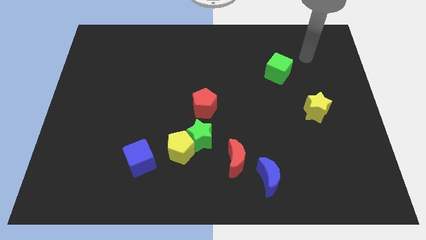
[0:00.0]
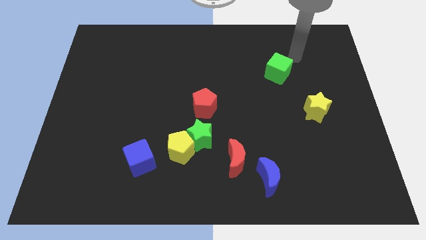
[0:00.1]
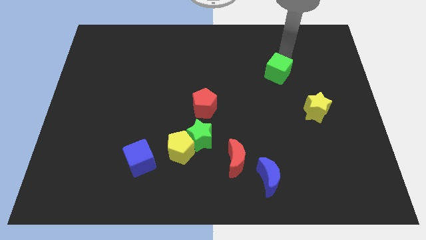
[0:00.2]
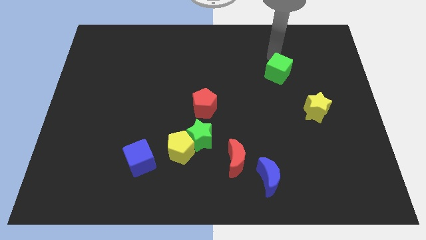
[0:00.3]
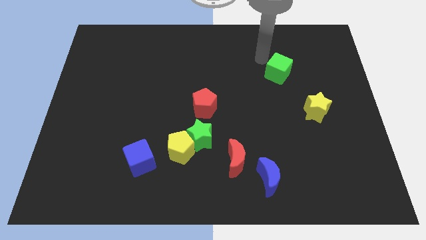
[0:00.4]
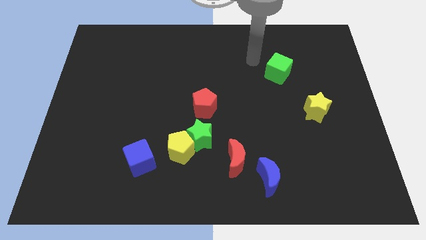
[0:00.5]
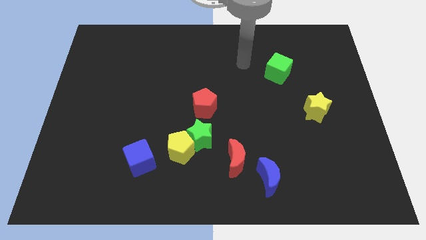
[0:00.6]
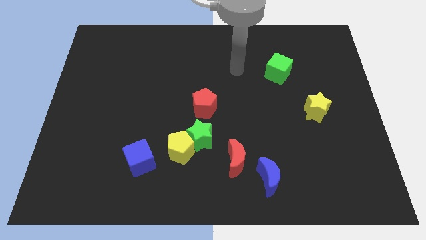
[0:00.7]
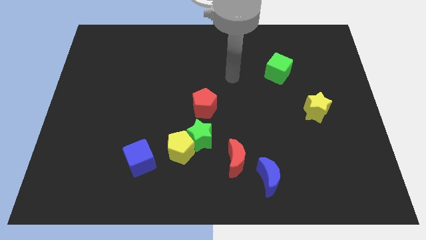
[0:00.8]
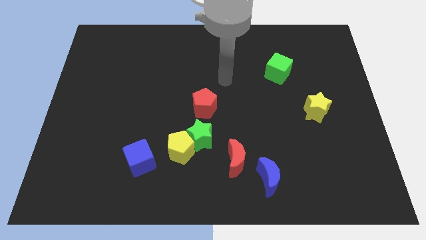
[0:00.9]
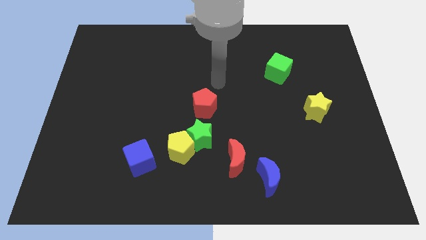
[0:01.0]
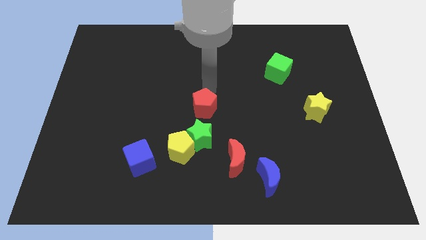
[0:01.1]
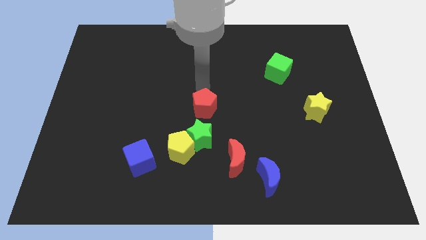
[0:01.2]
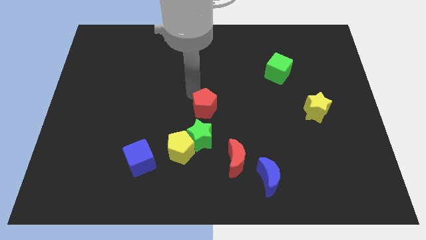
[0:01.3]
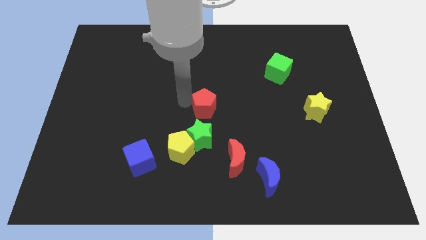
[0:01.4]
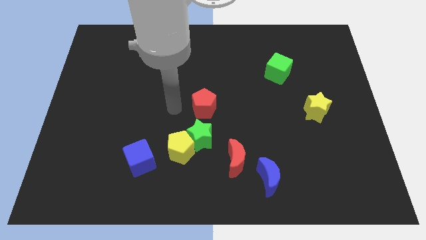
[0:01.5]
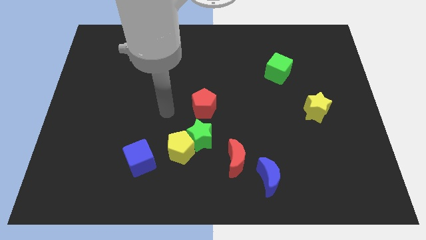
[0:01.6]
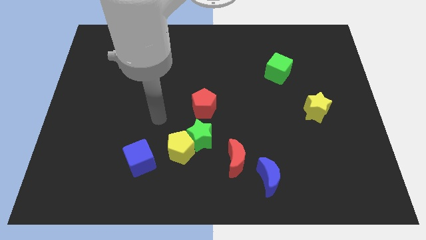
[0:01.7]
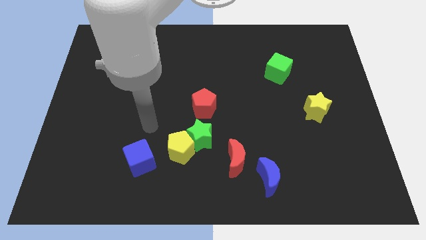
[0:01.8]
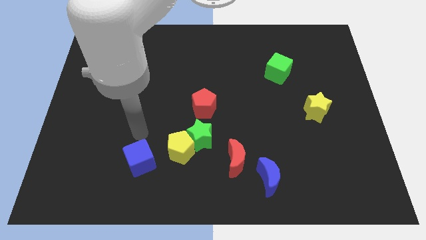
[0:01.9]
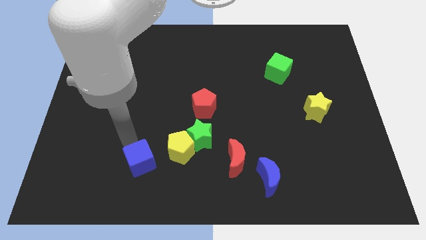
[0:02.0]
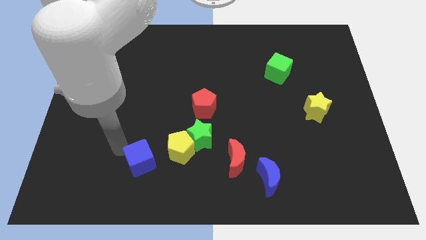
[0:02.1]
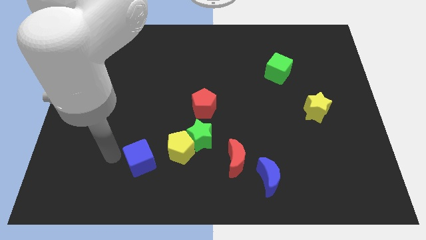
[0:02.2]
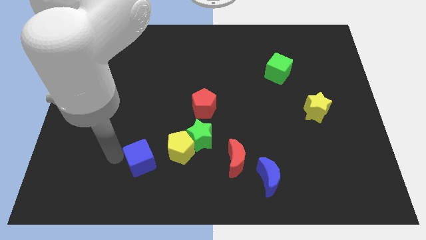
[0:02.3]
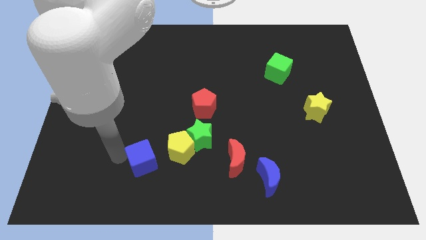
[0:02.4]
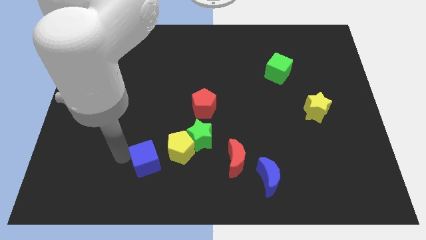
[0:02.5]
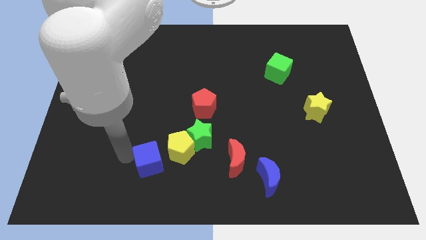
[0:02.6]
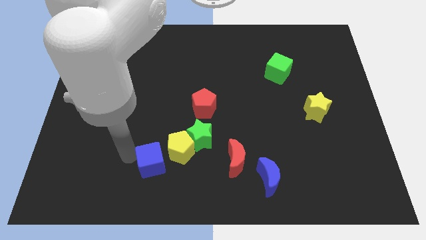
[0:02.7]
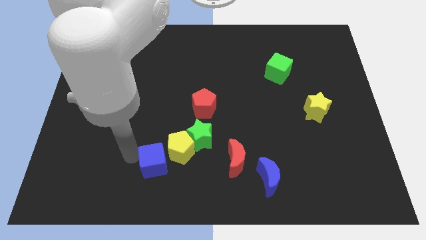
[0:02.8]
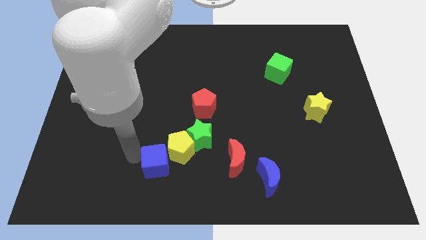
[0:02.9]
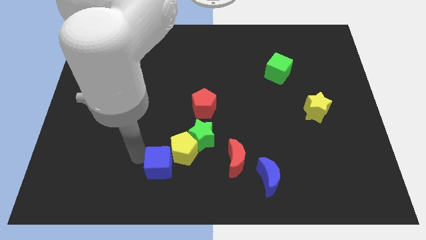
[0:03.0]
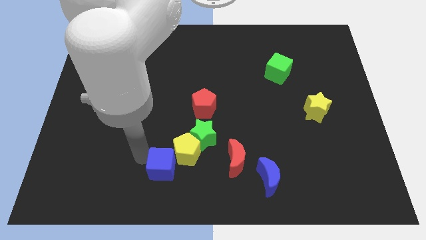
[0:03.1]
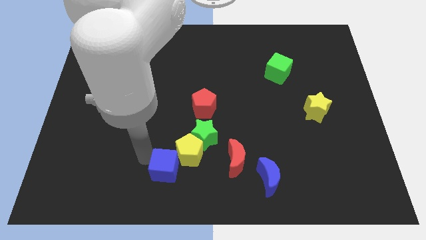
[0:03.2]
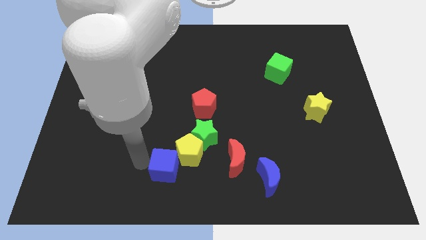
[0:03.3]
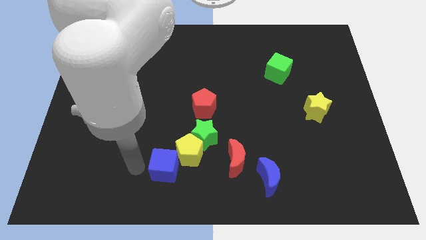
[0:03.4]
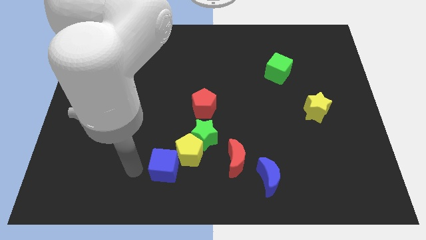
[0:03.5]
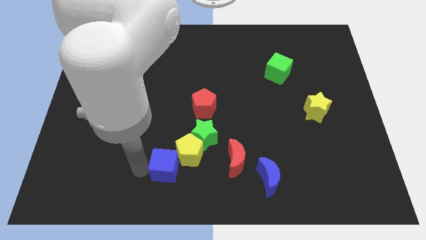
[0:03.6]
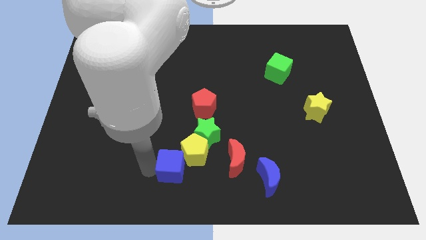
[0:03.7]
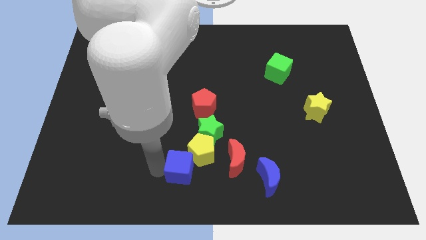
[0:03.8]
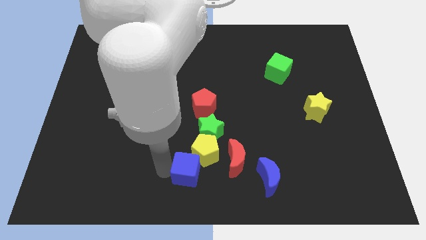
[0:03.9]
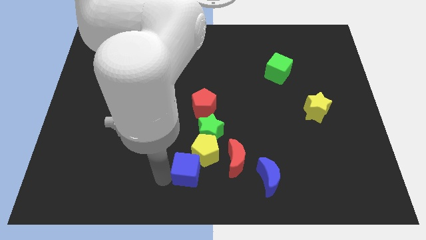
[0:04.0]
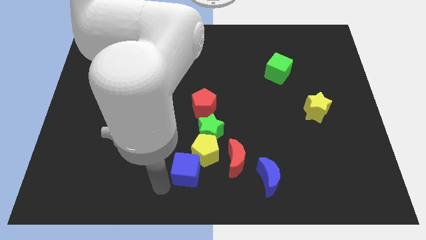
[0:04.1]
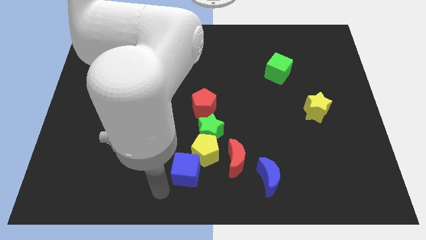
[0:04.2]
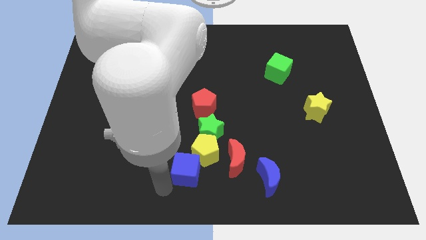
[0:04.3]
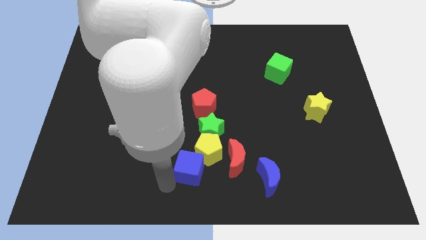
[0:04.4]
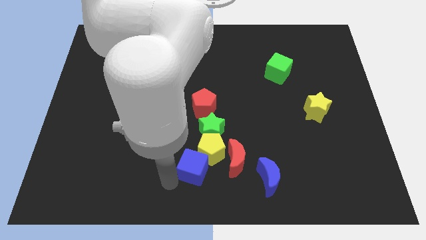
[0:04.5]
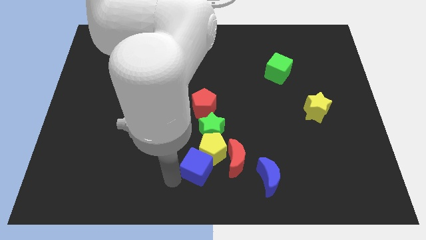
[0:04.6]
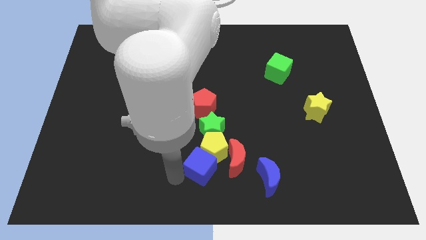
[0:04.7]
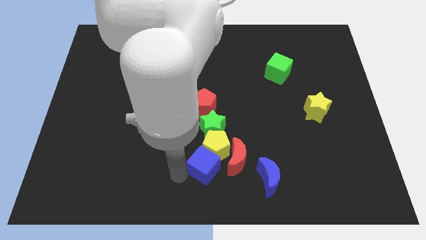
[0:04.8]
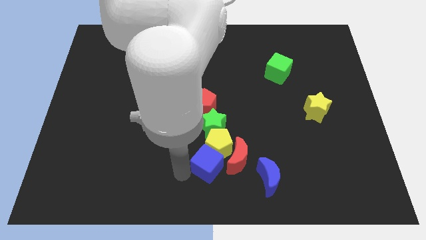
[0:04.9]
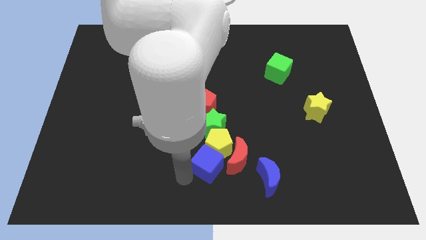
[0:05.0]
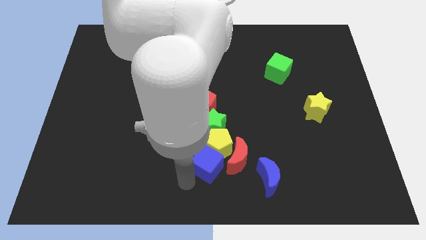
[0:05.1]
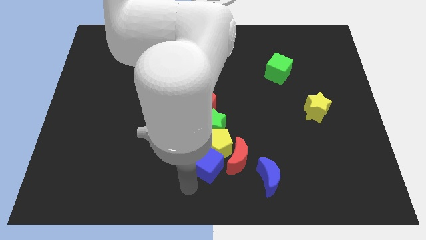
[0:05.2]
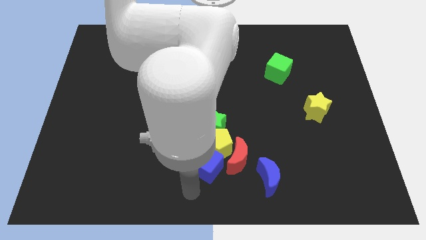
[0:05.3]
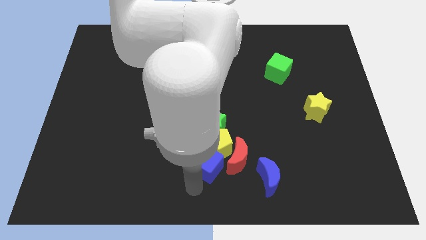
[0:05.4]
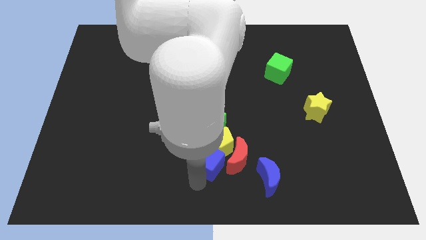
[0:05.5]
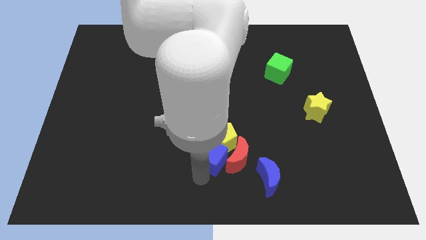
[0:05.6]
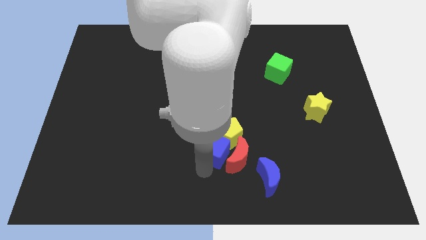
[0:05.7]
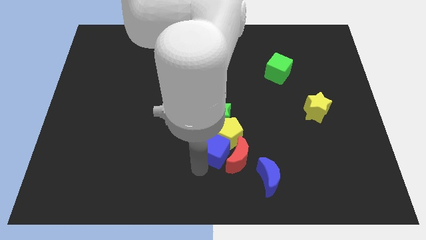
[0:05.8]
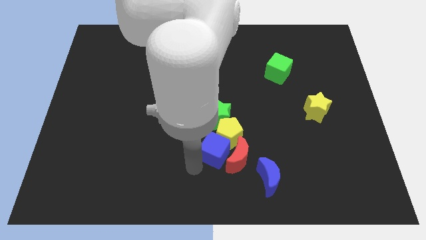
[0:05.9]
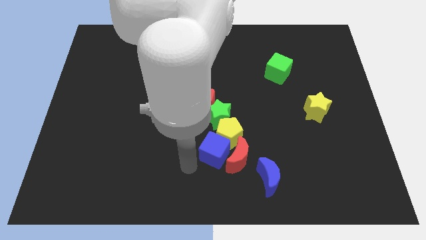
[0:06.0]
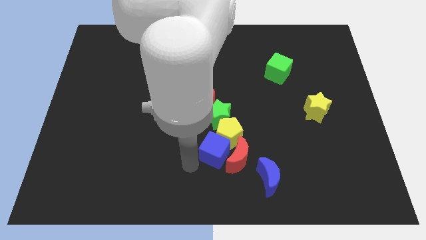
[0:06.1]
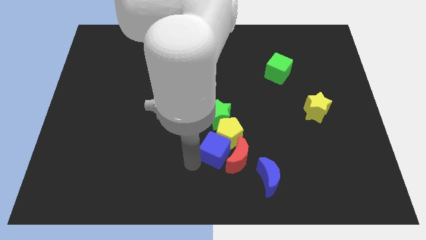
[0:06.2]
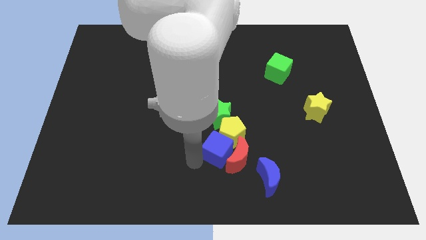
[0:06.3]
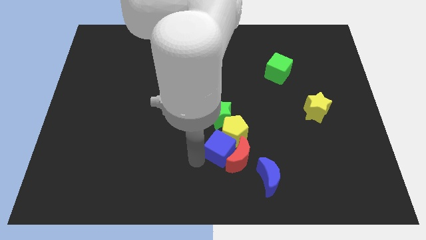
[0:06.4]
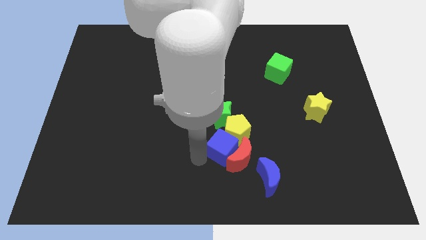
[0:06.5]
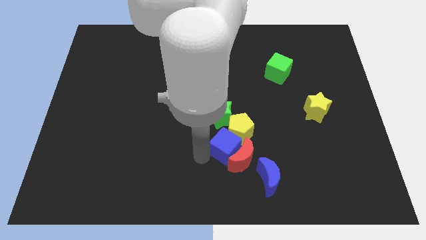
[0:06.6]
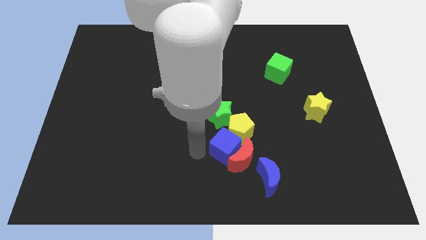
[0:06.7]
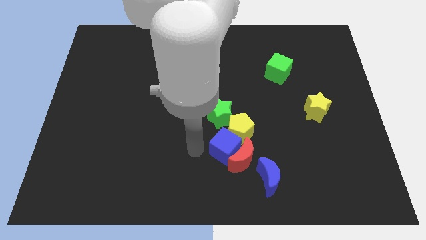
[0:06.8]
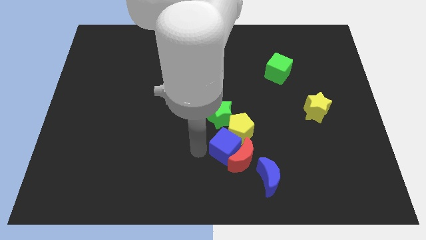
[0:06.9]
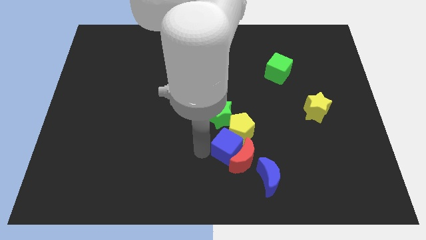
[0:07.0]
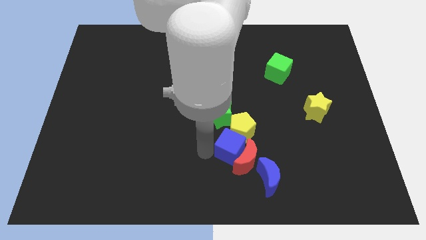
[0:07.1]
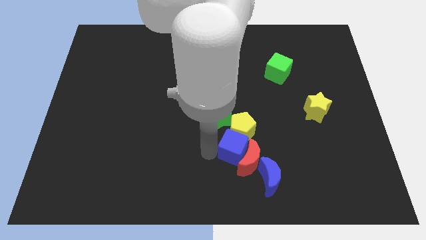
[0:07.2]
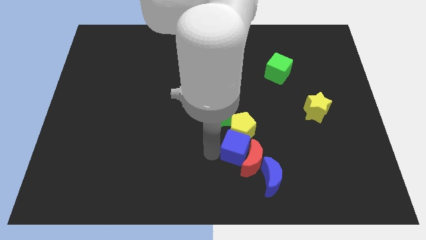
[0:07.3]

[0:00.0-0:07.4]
push the blue cube to the right

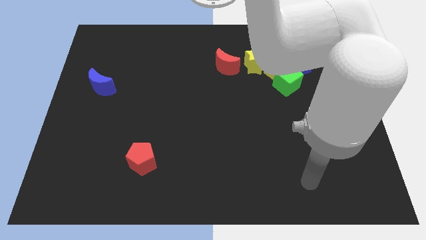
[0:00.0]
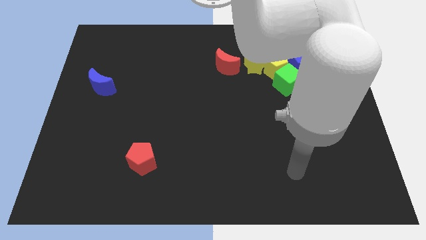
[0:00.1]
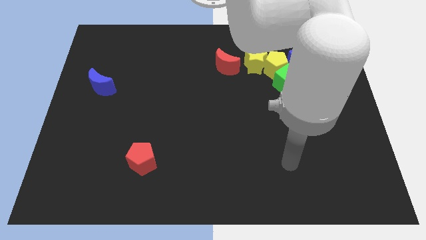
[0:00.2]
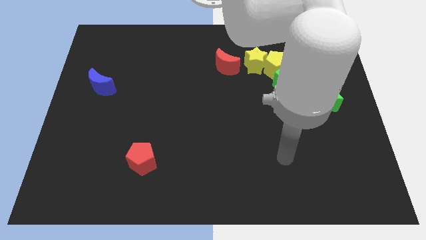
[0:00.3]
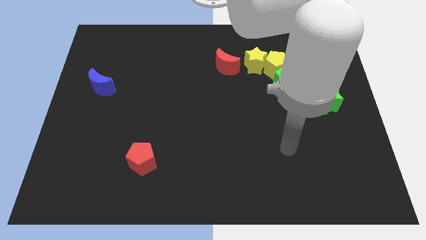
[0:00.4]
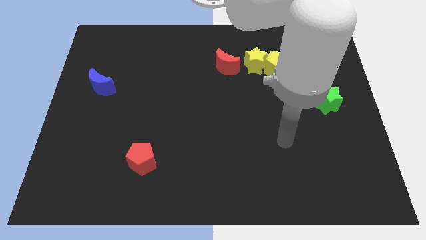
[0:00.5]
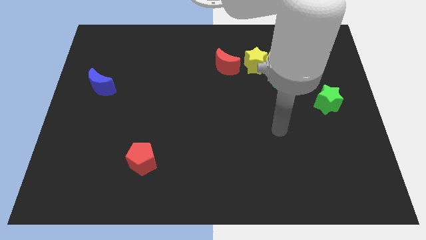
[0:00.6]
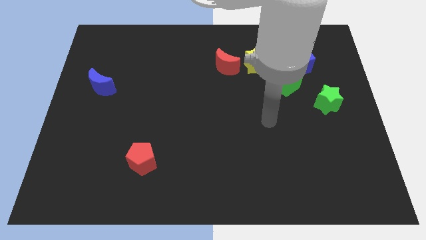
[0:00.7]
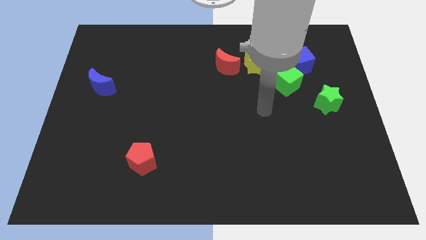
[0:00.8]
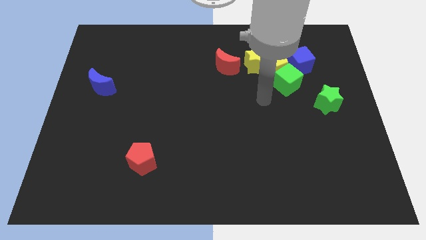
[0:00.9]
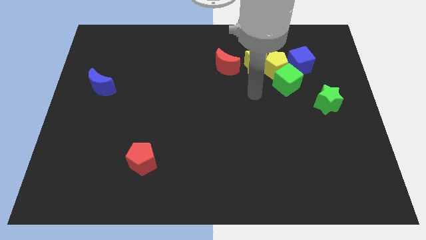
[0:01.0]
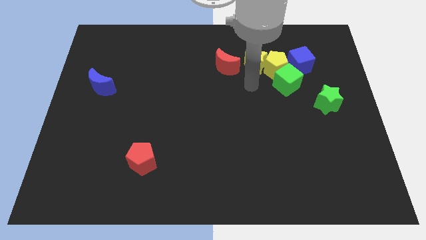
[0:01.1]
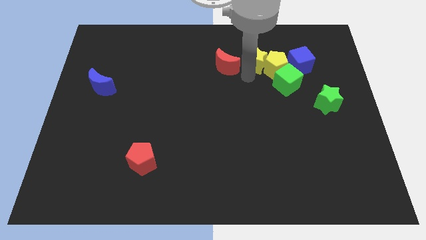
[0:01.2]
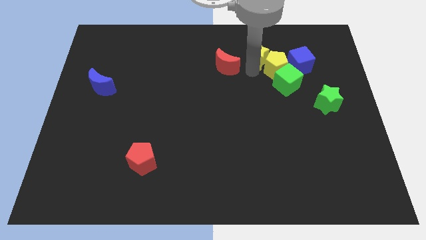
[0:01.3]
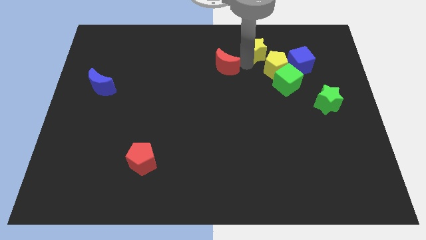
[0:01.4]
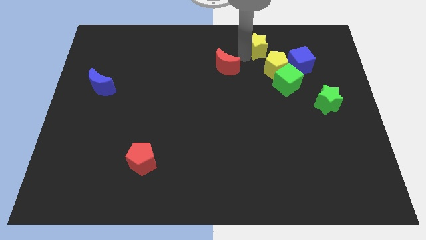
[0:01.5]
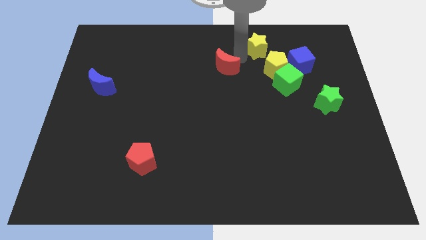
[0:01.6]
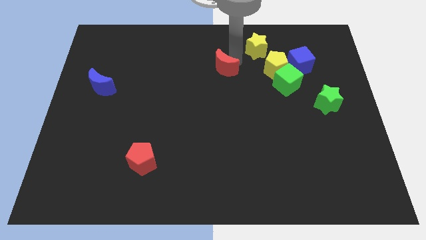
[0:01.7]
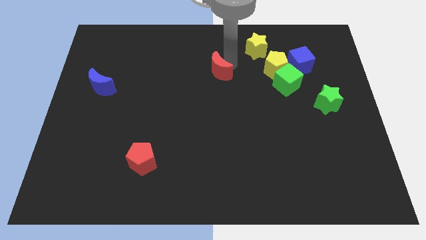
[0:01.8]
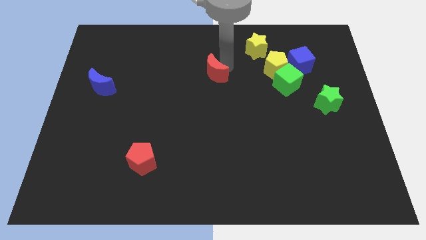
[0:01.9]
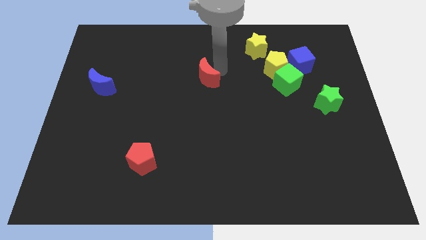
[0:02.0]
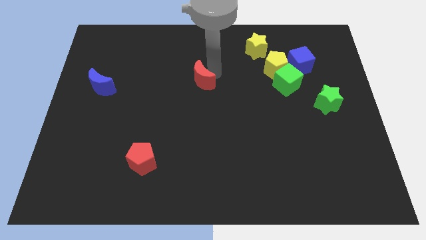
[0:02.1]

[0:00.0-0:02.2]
slightly push the red moon downwards and to the left diagonally
